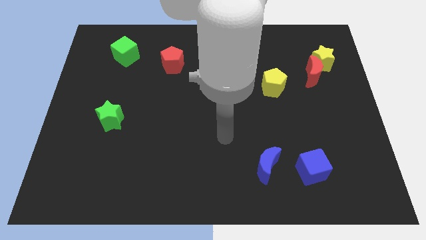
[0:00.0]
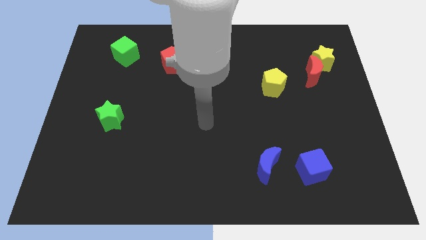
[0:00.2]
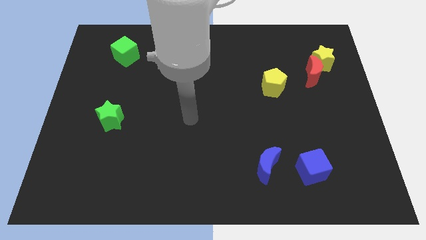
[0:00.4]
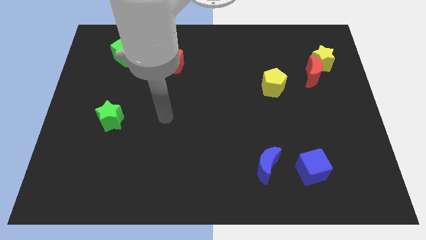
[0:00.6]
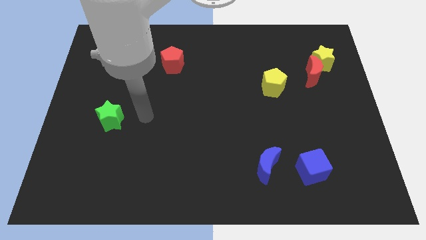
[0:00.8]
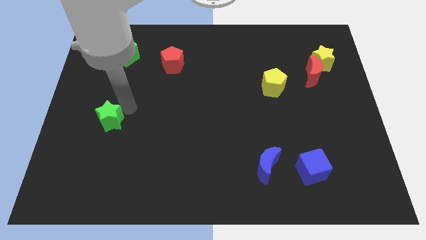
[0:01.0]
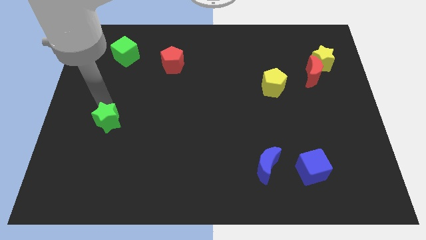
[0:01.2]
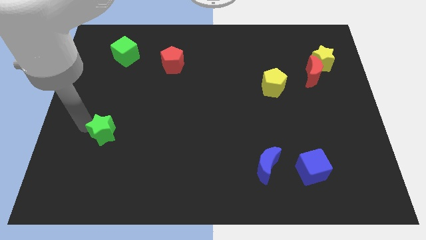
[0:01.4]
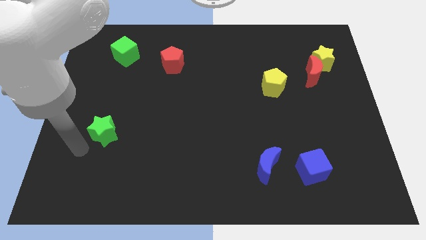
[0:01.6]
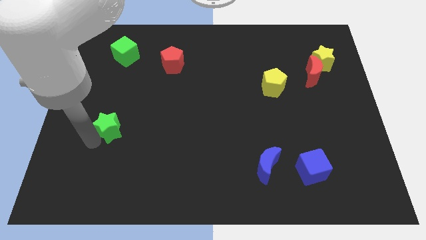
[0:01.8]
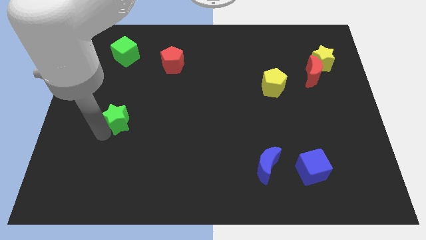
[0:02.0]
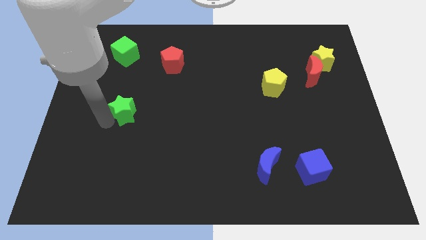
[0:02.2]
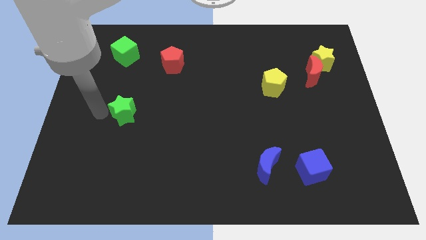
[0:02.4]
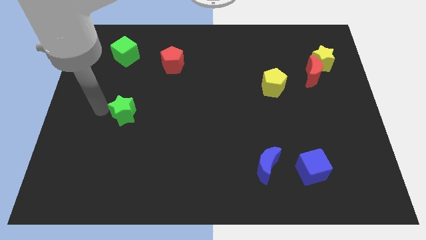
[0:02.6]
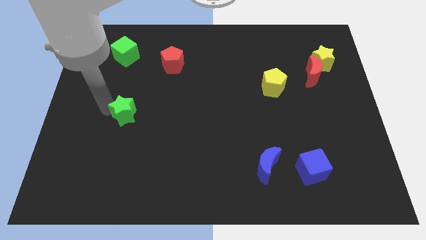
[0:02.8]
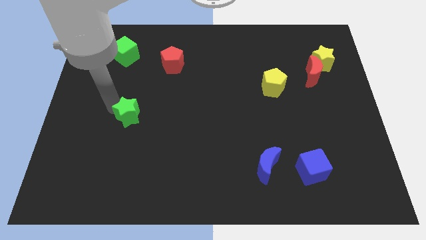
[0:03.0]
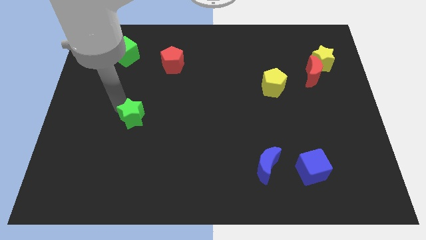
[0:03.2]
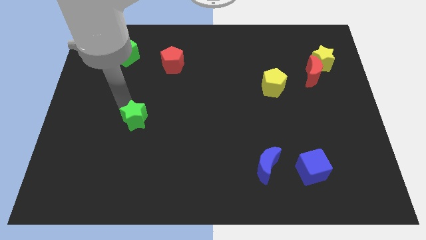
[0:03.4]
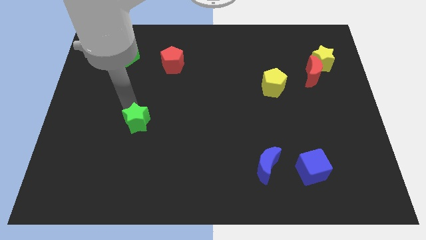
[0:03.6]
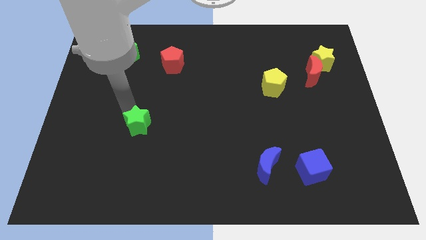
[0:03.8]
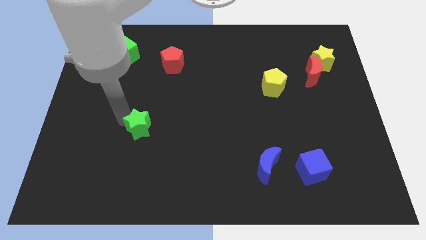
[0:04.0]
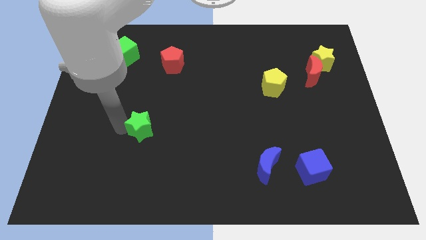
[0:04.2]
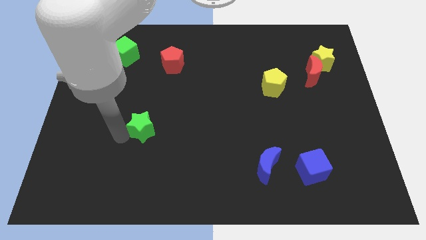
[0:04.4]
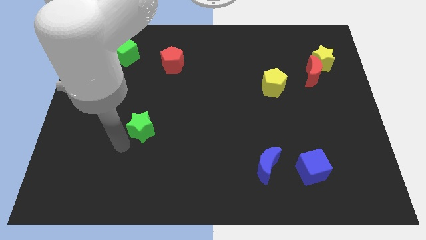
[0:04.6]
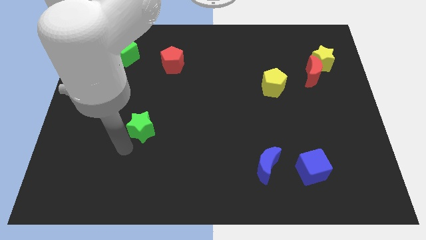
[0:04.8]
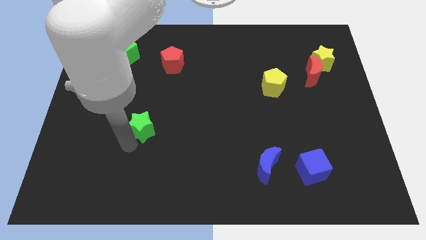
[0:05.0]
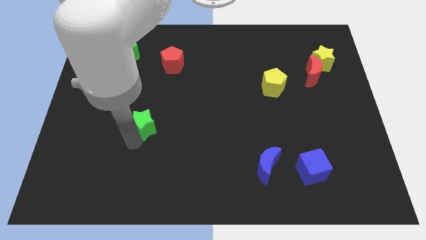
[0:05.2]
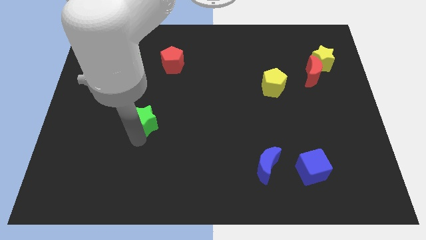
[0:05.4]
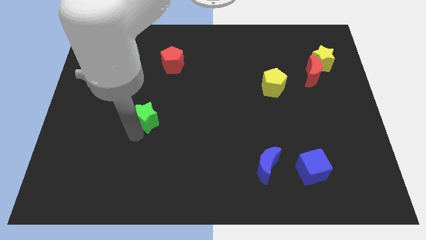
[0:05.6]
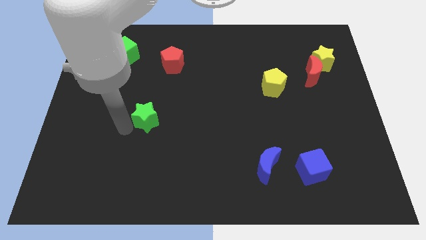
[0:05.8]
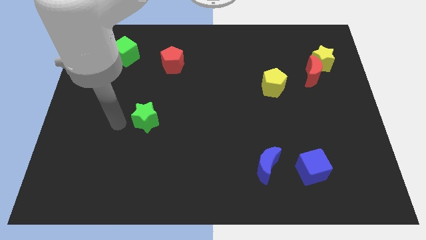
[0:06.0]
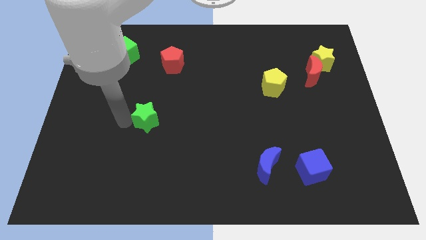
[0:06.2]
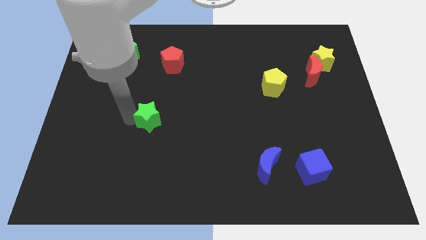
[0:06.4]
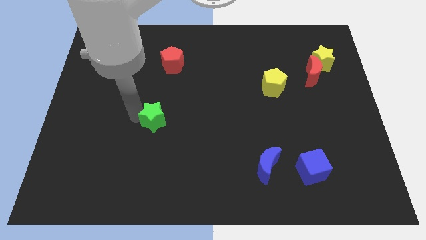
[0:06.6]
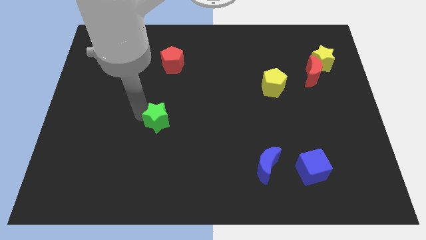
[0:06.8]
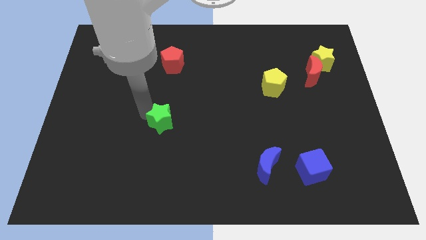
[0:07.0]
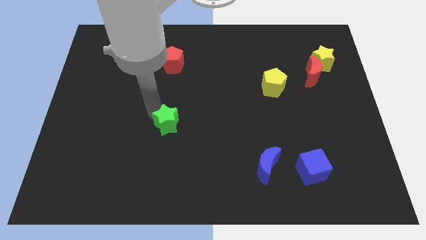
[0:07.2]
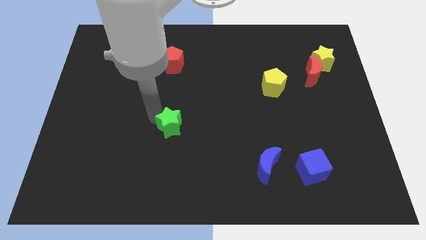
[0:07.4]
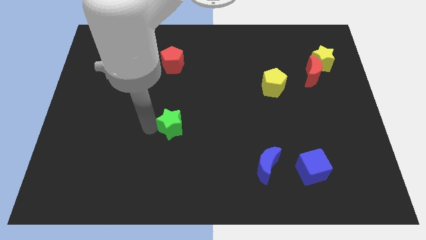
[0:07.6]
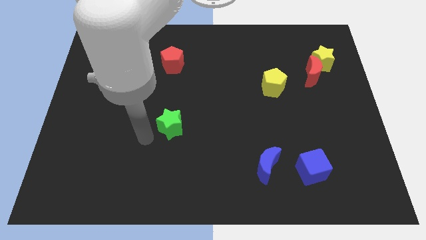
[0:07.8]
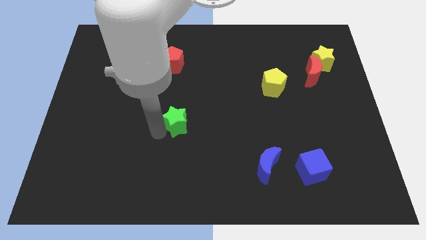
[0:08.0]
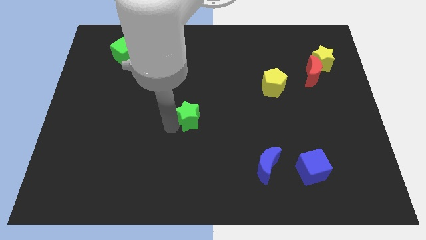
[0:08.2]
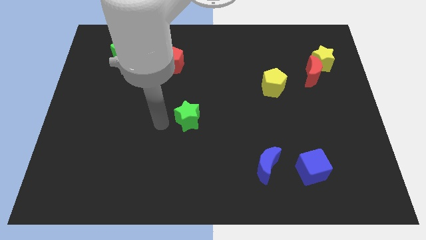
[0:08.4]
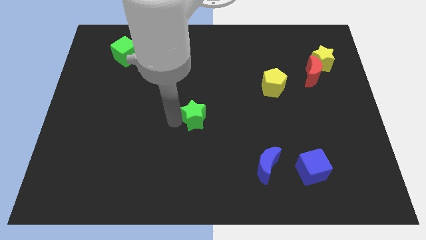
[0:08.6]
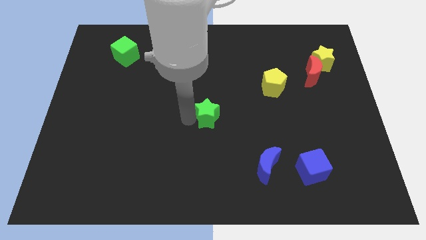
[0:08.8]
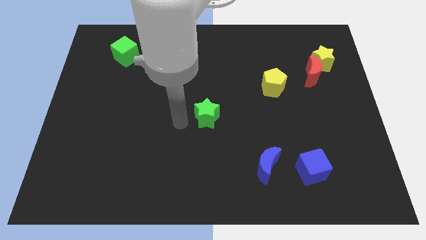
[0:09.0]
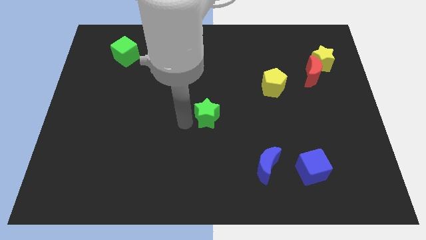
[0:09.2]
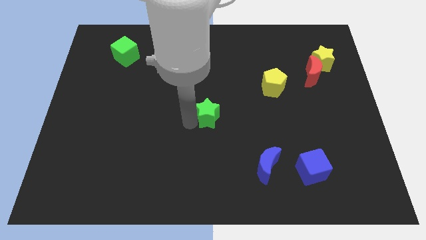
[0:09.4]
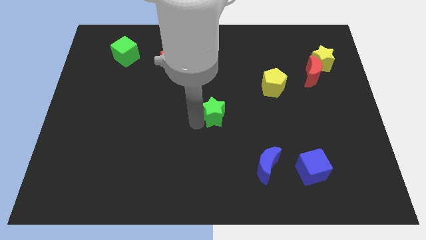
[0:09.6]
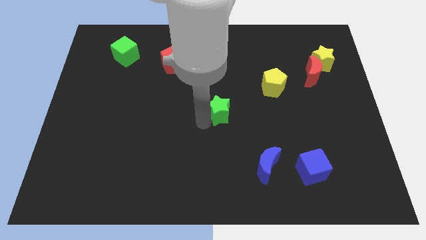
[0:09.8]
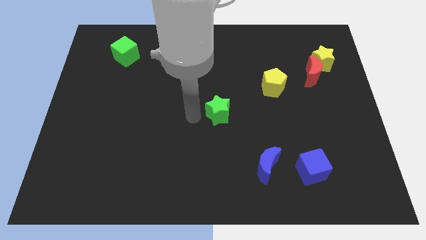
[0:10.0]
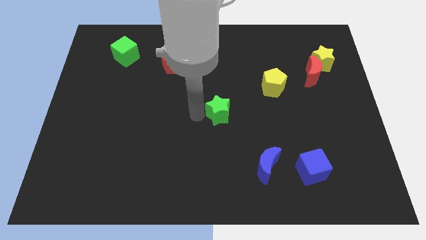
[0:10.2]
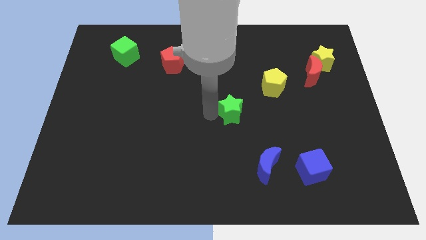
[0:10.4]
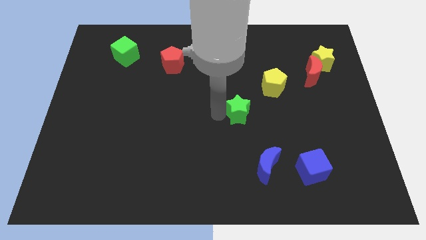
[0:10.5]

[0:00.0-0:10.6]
push the green star to the bottom left of the yellow pentagon

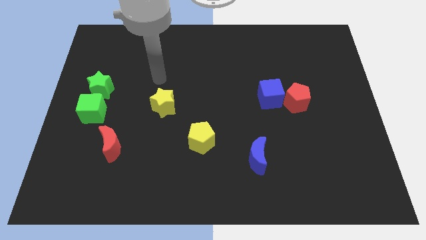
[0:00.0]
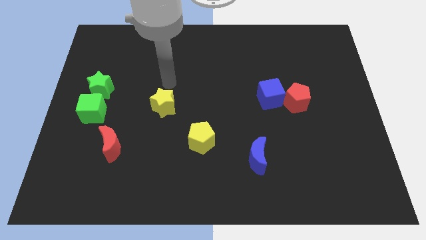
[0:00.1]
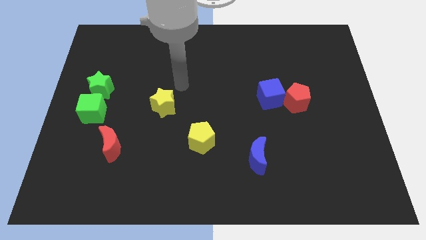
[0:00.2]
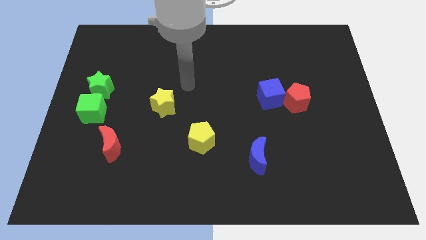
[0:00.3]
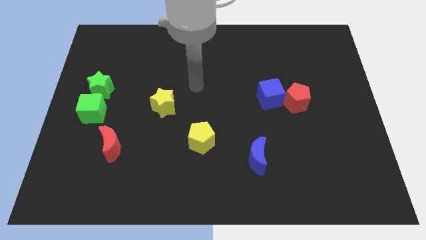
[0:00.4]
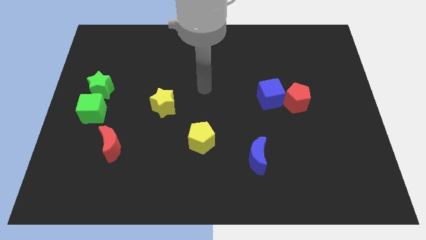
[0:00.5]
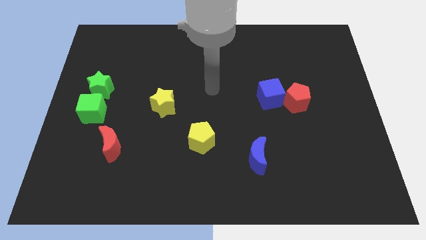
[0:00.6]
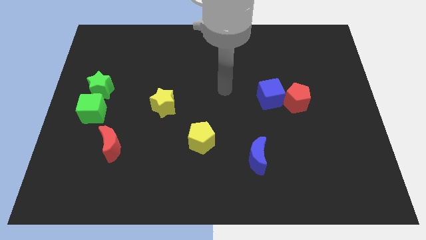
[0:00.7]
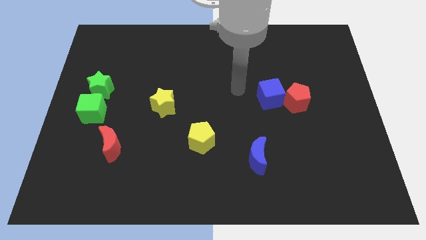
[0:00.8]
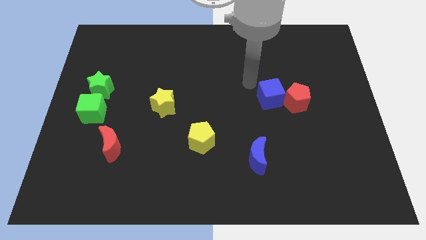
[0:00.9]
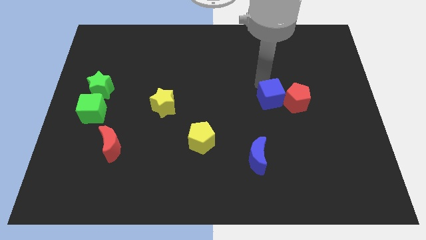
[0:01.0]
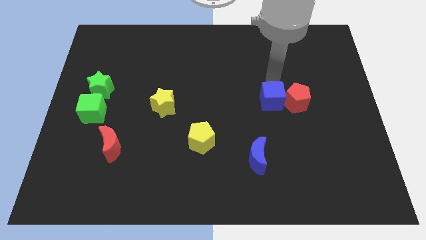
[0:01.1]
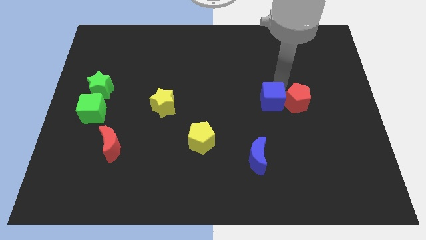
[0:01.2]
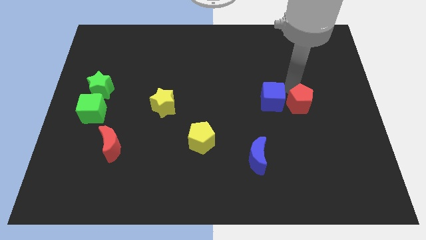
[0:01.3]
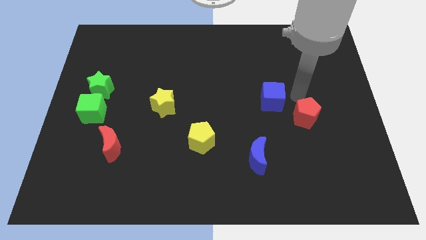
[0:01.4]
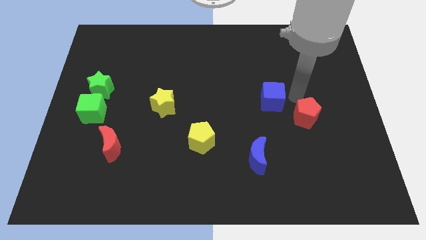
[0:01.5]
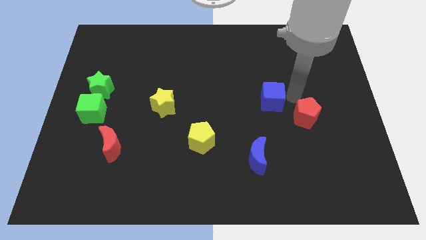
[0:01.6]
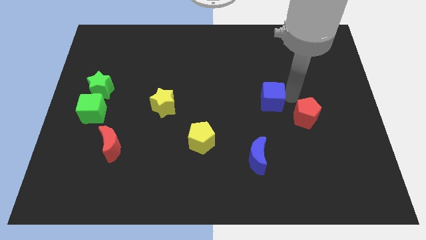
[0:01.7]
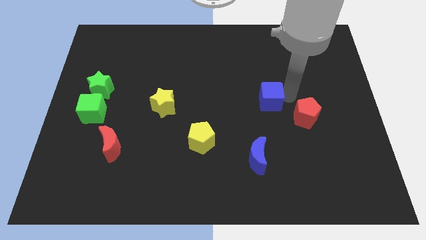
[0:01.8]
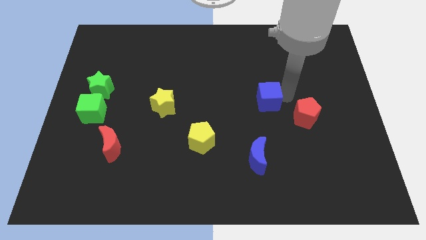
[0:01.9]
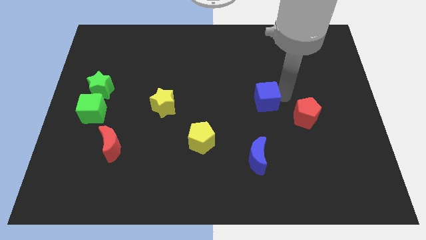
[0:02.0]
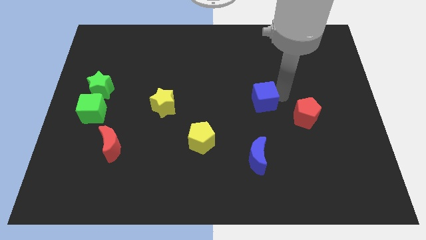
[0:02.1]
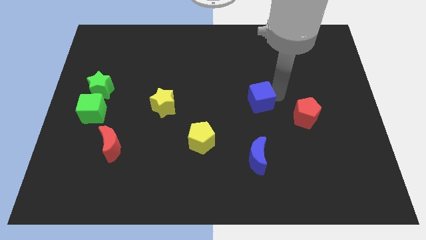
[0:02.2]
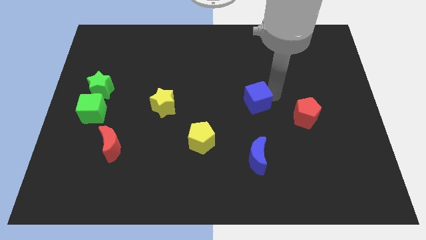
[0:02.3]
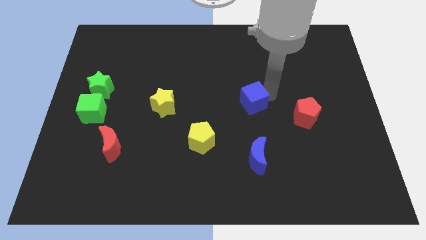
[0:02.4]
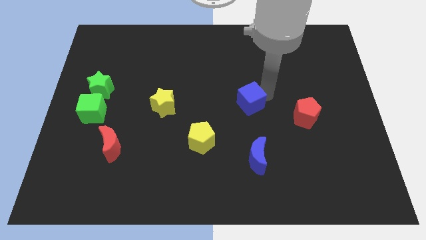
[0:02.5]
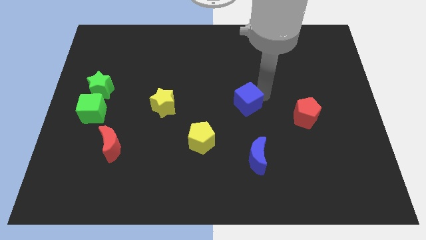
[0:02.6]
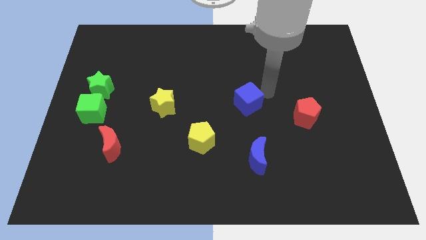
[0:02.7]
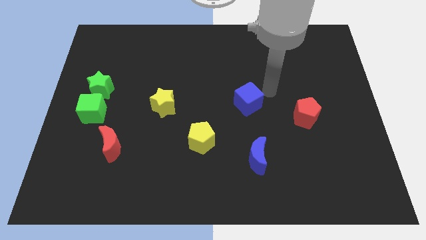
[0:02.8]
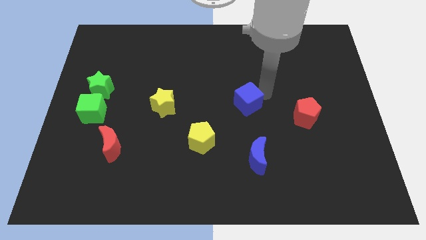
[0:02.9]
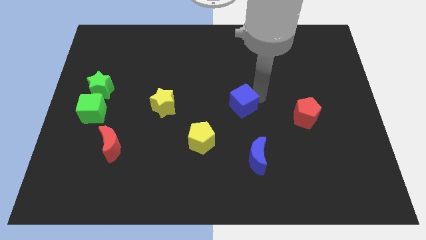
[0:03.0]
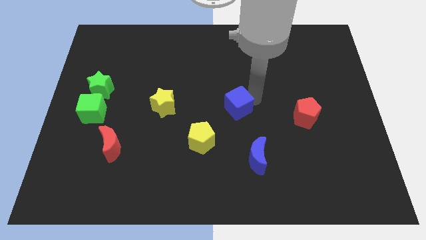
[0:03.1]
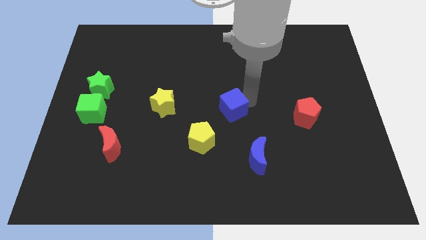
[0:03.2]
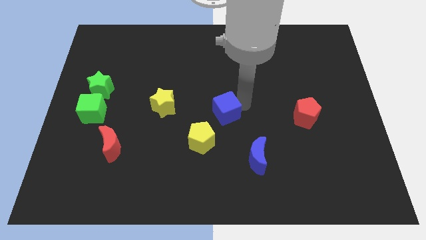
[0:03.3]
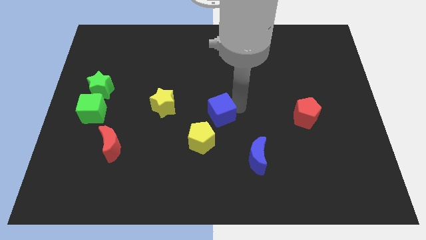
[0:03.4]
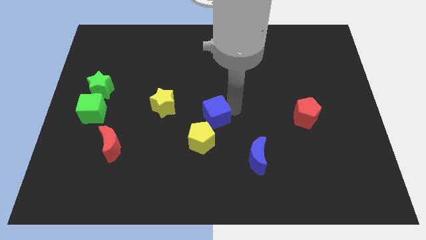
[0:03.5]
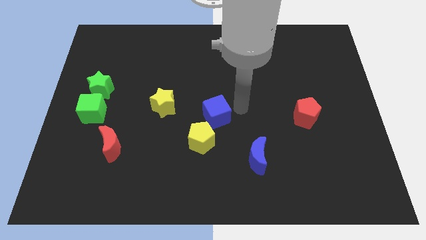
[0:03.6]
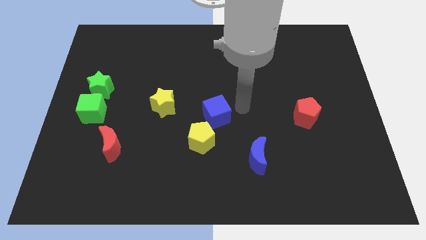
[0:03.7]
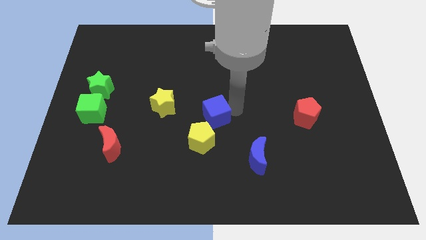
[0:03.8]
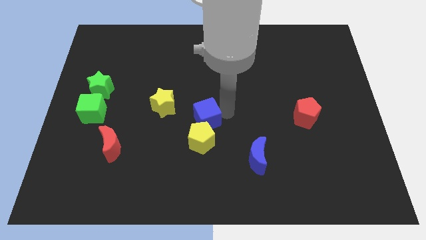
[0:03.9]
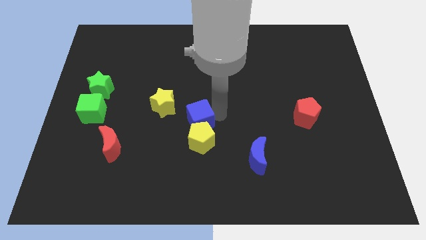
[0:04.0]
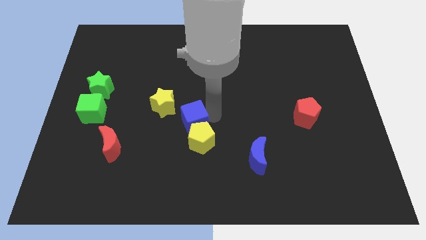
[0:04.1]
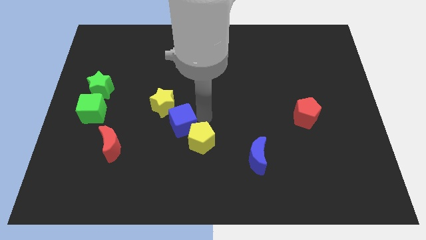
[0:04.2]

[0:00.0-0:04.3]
move the blue cube left of the yellow pentagon
